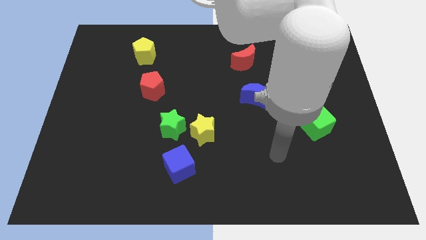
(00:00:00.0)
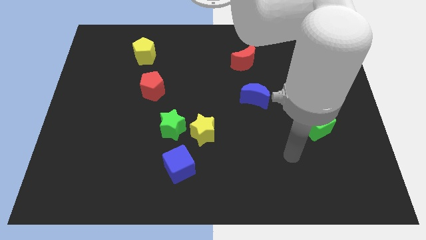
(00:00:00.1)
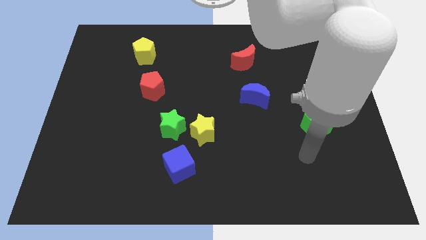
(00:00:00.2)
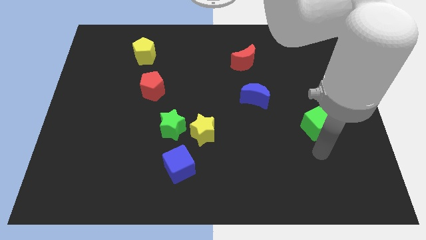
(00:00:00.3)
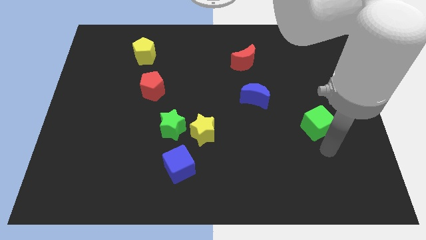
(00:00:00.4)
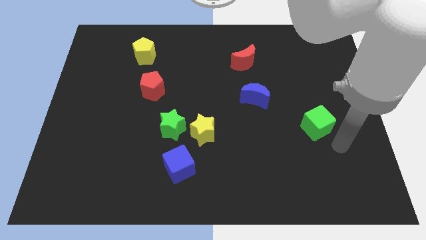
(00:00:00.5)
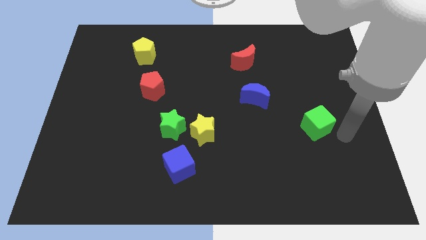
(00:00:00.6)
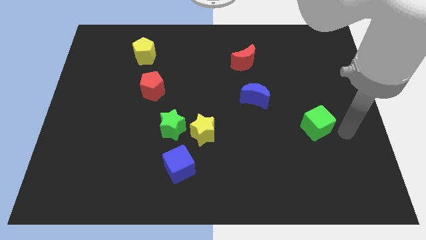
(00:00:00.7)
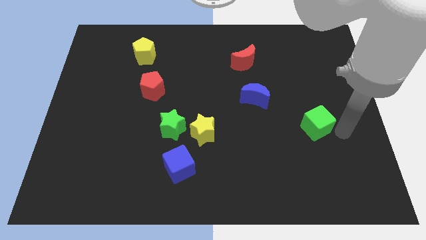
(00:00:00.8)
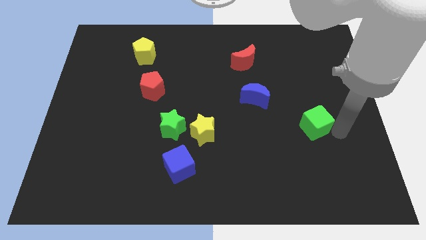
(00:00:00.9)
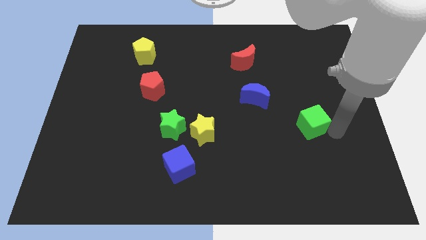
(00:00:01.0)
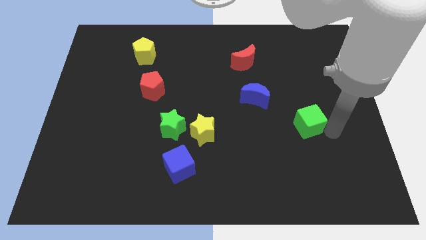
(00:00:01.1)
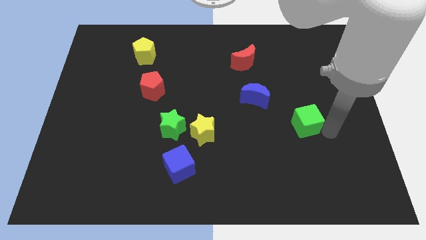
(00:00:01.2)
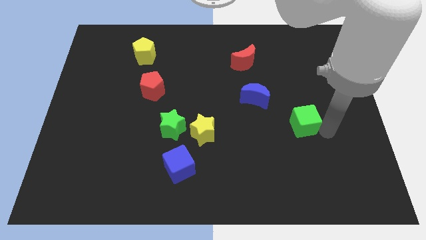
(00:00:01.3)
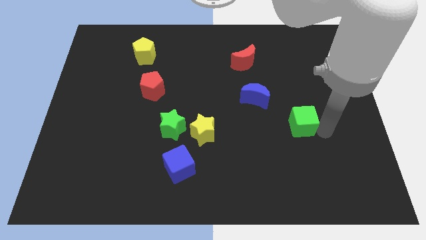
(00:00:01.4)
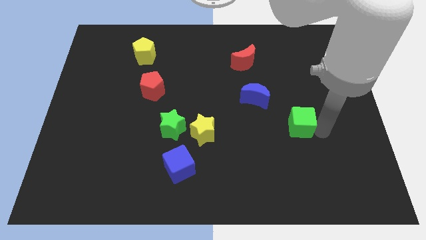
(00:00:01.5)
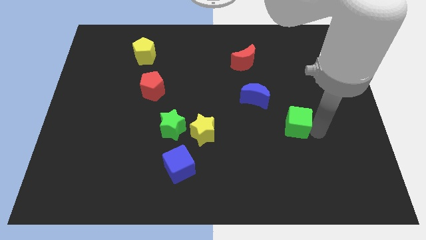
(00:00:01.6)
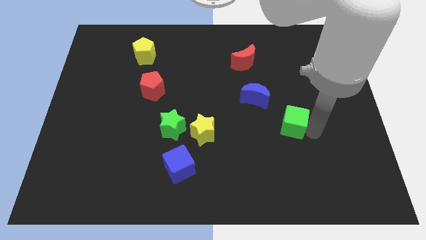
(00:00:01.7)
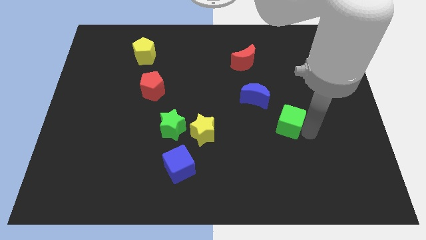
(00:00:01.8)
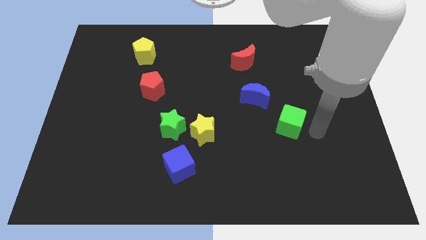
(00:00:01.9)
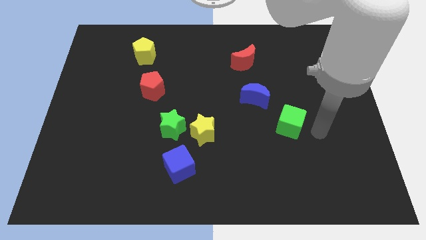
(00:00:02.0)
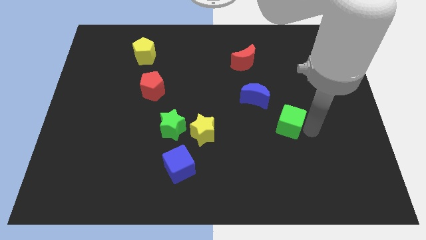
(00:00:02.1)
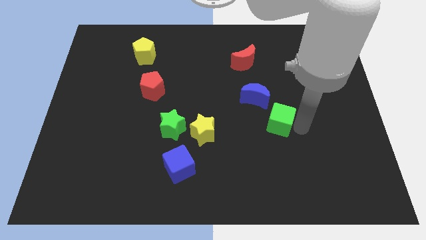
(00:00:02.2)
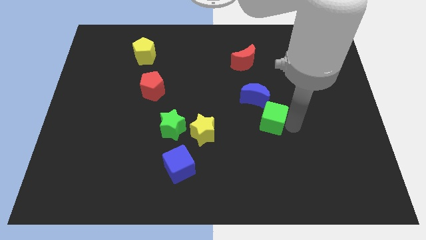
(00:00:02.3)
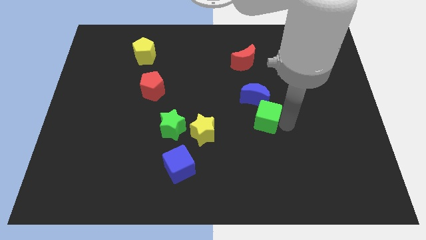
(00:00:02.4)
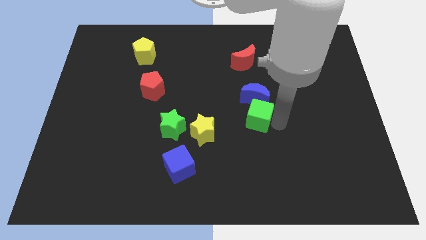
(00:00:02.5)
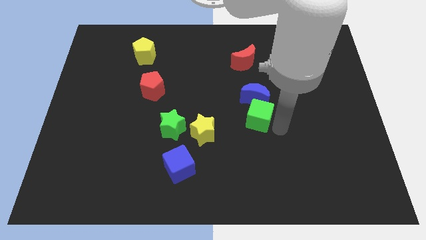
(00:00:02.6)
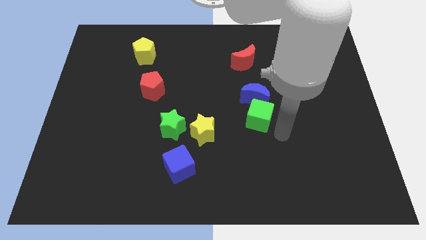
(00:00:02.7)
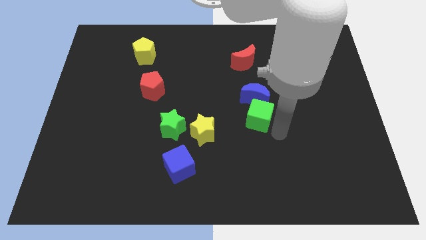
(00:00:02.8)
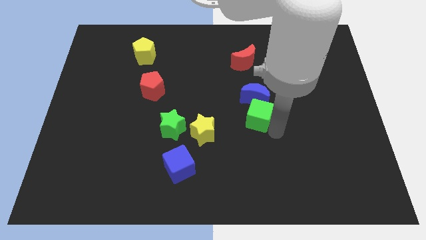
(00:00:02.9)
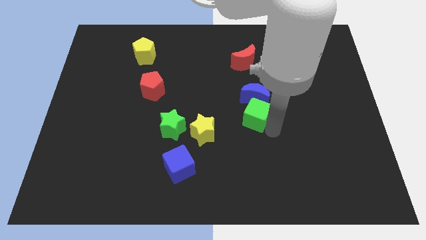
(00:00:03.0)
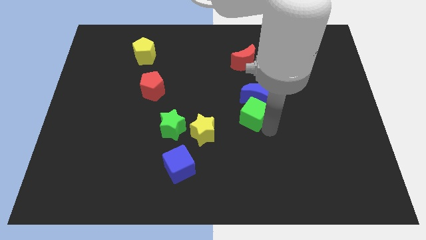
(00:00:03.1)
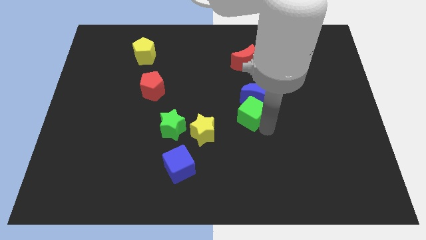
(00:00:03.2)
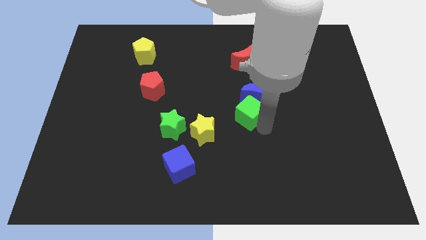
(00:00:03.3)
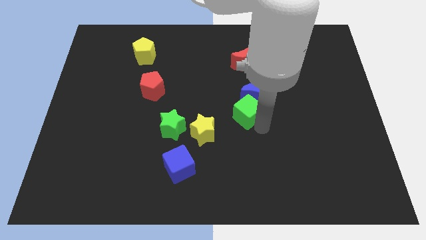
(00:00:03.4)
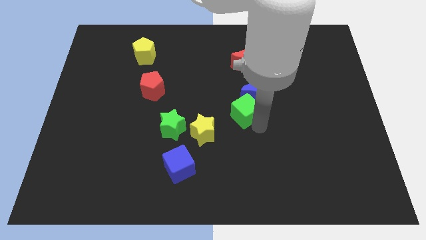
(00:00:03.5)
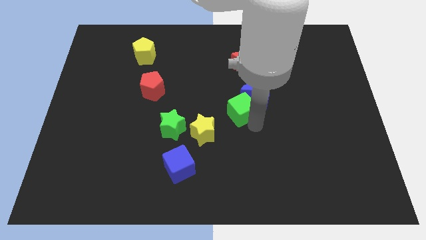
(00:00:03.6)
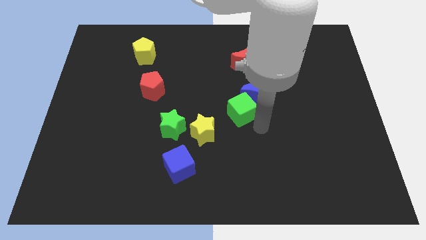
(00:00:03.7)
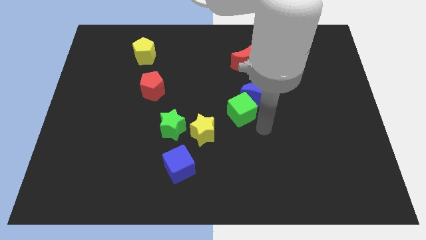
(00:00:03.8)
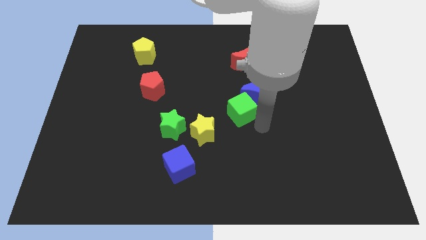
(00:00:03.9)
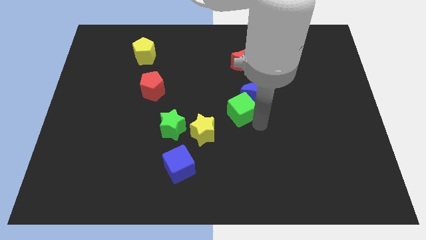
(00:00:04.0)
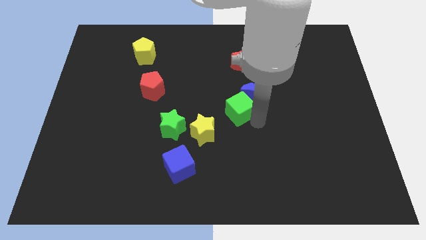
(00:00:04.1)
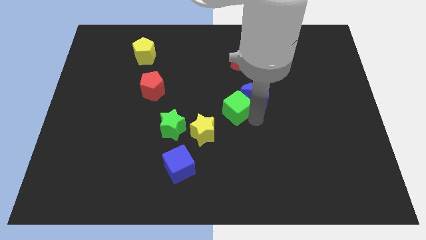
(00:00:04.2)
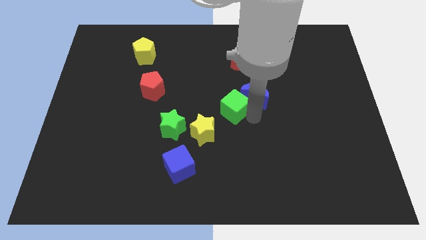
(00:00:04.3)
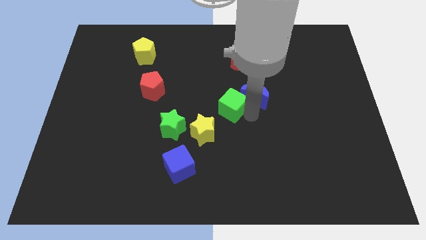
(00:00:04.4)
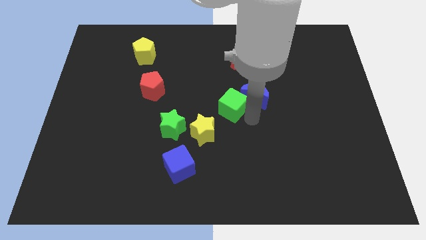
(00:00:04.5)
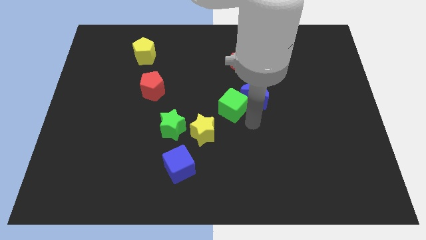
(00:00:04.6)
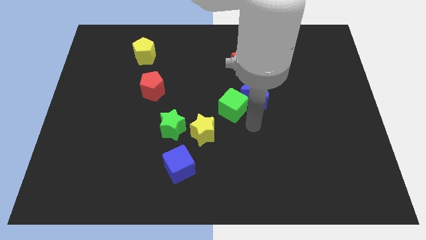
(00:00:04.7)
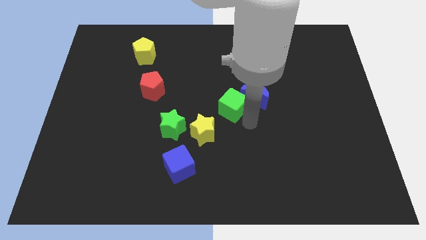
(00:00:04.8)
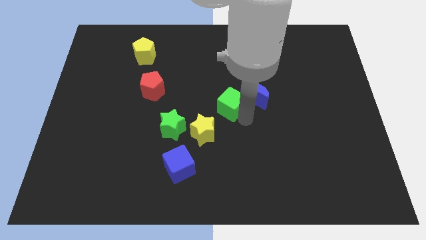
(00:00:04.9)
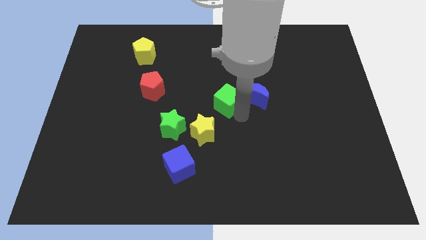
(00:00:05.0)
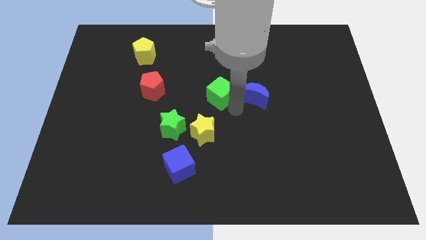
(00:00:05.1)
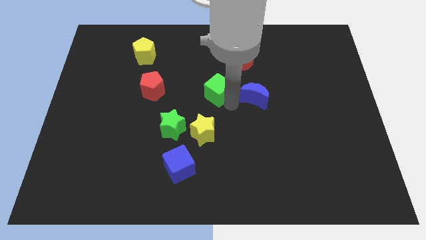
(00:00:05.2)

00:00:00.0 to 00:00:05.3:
slide the green cube right of the red pentagon

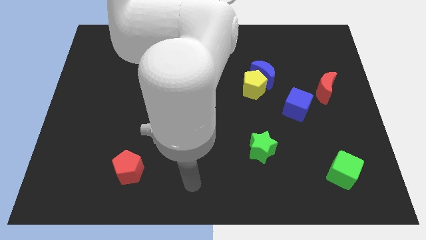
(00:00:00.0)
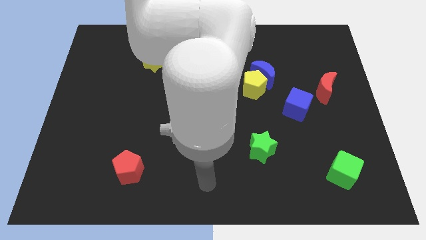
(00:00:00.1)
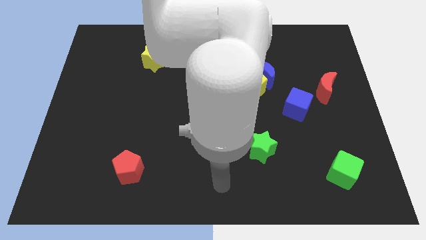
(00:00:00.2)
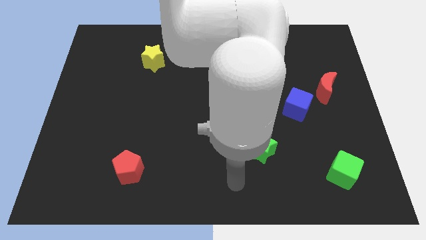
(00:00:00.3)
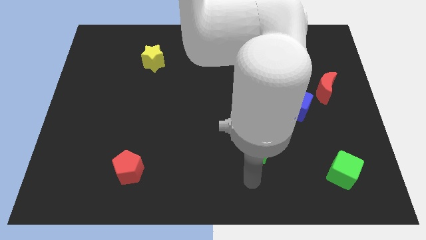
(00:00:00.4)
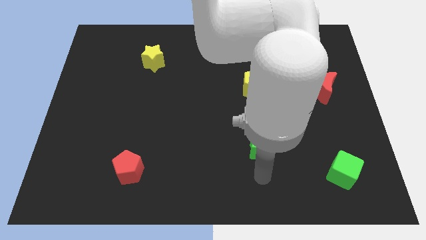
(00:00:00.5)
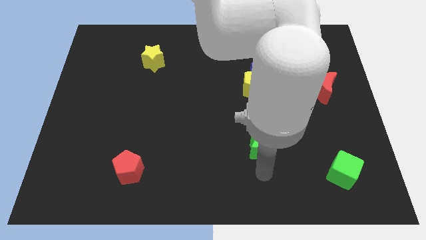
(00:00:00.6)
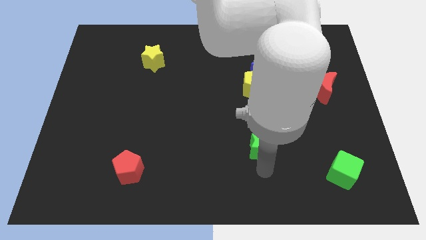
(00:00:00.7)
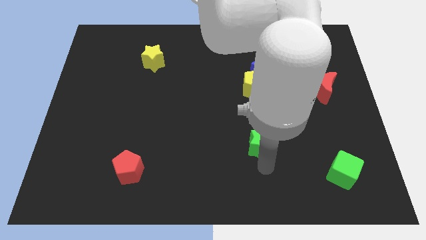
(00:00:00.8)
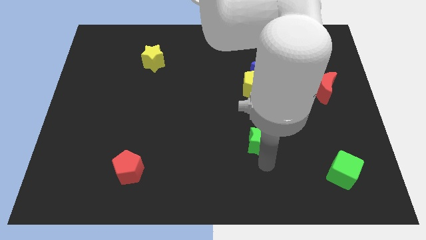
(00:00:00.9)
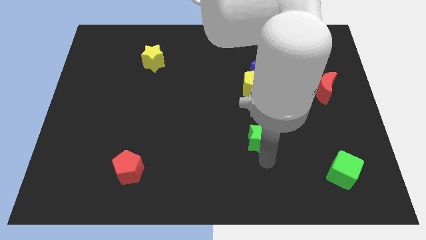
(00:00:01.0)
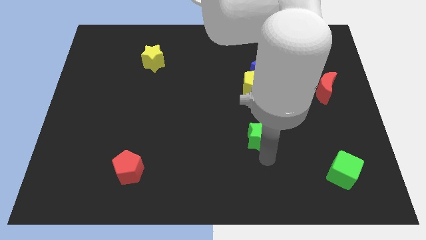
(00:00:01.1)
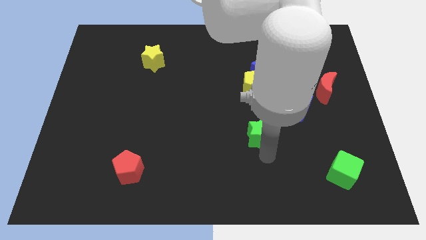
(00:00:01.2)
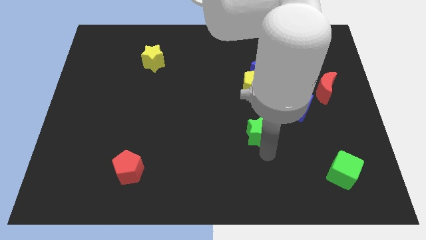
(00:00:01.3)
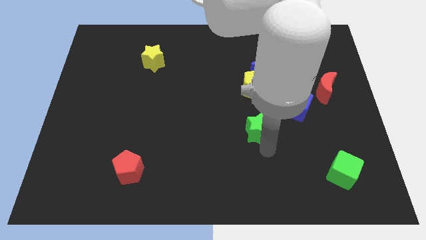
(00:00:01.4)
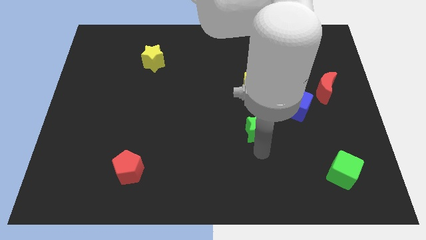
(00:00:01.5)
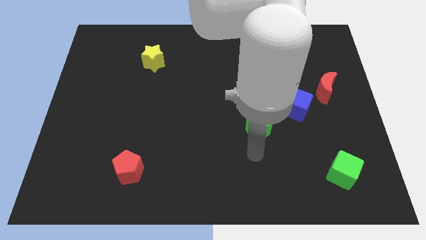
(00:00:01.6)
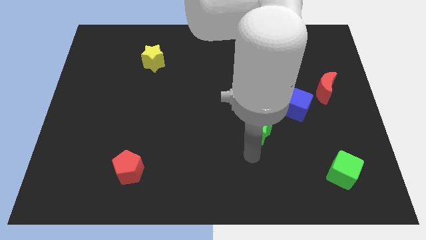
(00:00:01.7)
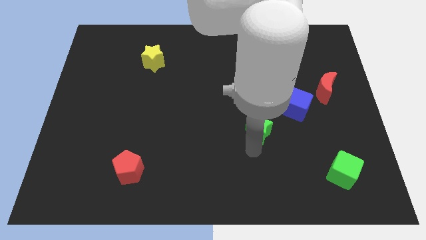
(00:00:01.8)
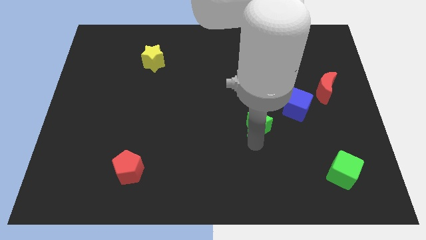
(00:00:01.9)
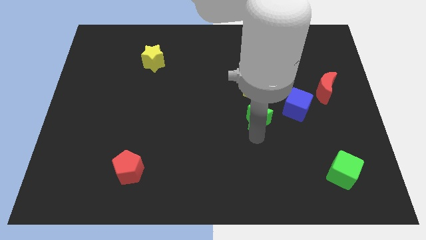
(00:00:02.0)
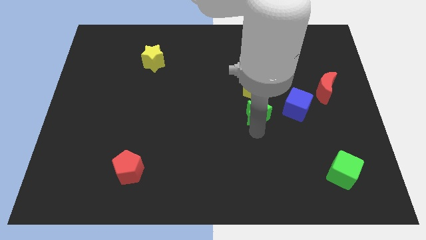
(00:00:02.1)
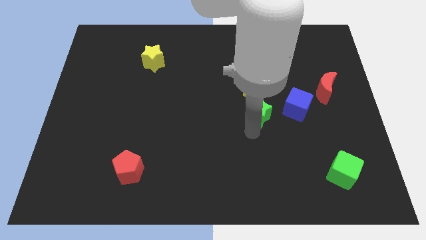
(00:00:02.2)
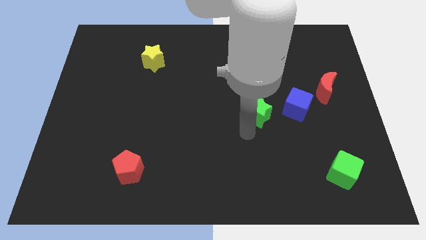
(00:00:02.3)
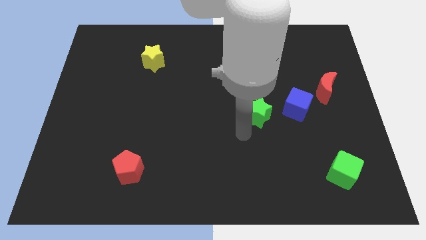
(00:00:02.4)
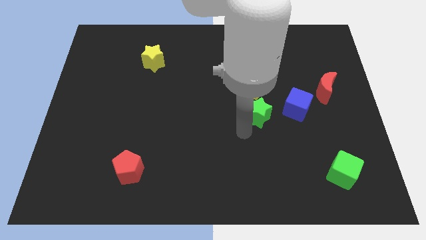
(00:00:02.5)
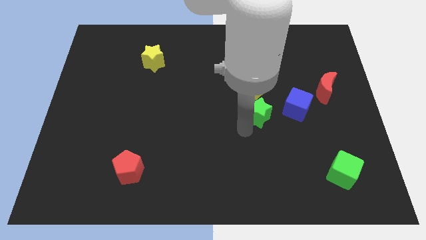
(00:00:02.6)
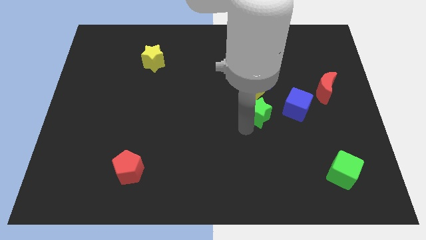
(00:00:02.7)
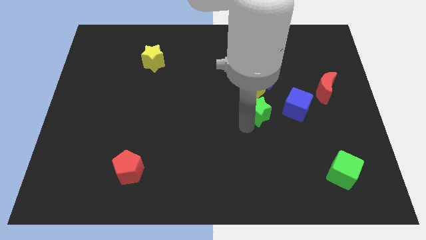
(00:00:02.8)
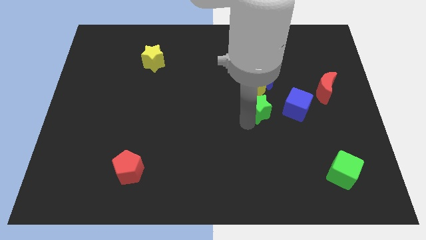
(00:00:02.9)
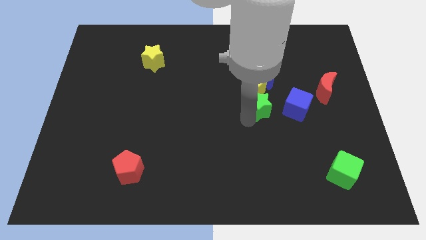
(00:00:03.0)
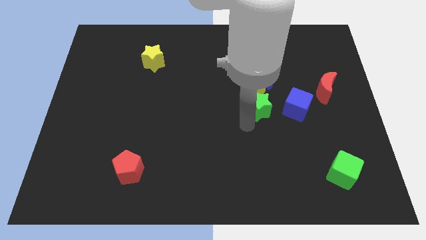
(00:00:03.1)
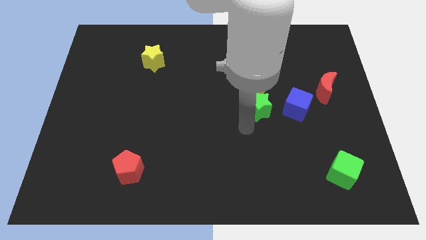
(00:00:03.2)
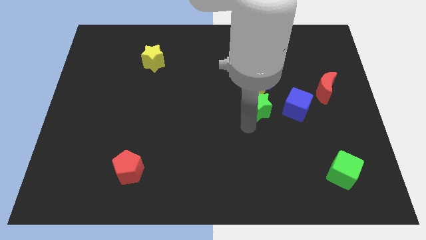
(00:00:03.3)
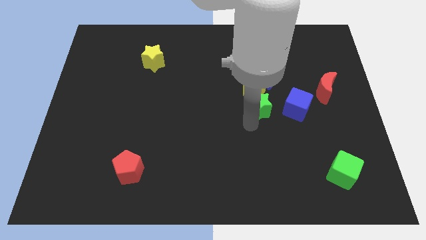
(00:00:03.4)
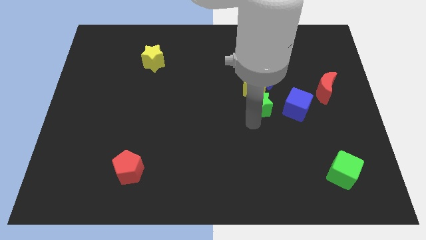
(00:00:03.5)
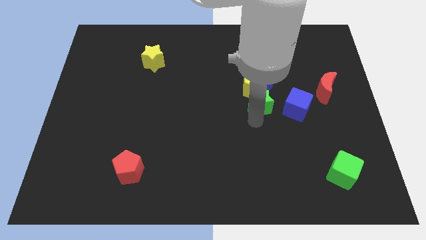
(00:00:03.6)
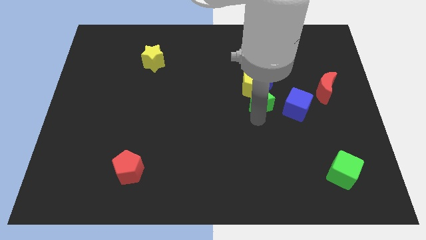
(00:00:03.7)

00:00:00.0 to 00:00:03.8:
slide the green star diagonally up and to the left of the blue cube
